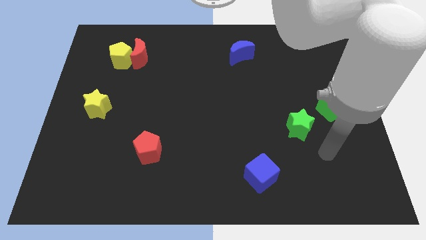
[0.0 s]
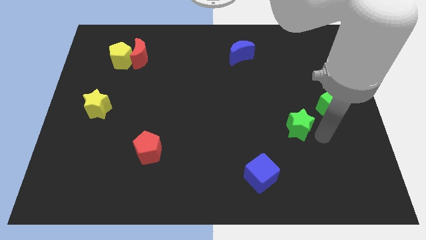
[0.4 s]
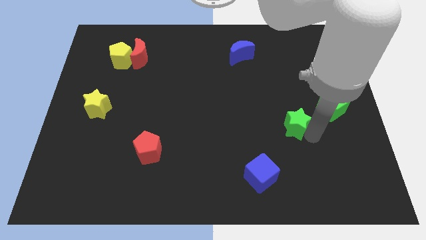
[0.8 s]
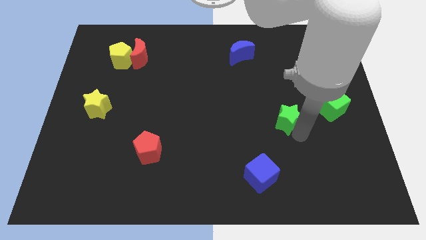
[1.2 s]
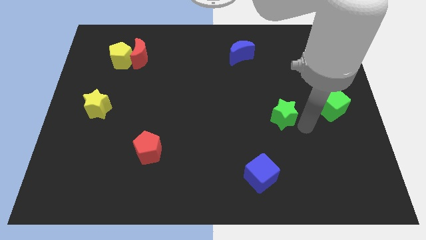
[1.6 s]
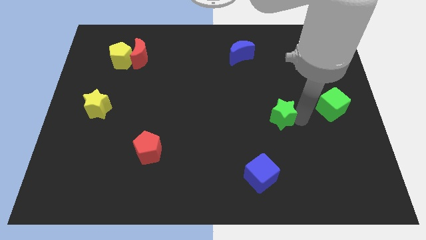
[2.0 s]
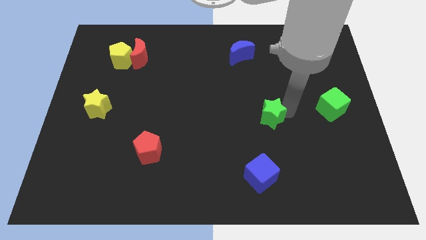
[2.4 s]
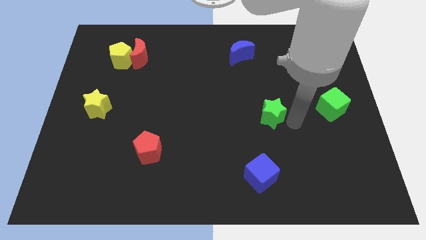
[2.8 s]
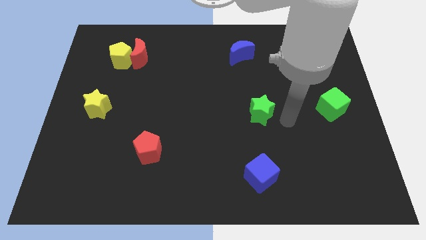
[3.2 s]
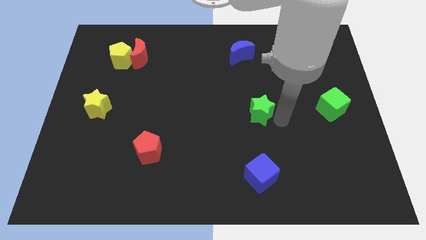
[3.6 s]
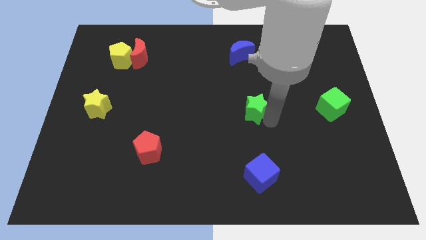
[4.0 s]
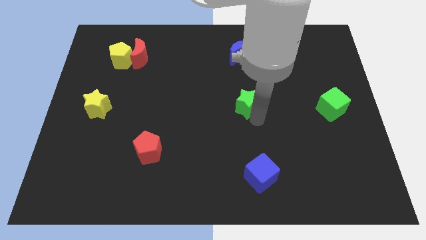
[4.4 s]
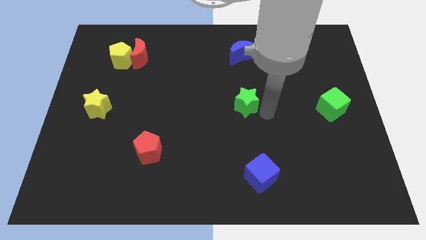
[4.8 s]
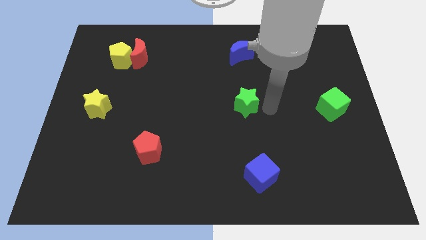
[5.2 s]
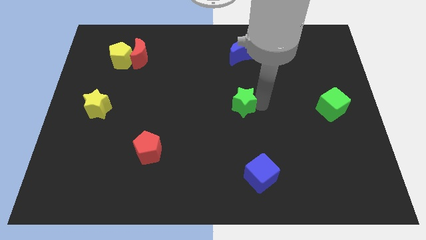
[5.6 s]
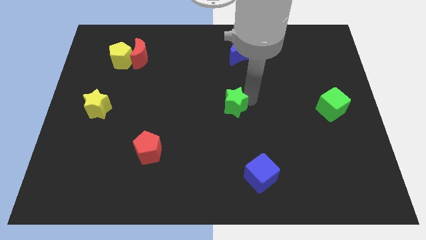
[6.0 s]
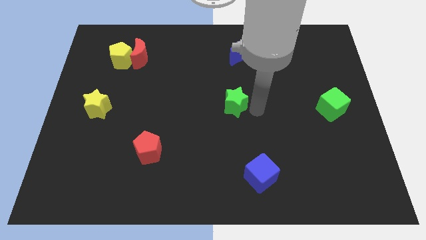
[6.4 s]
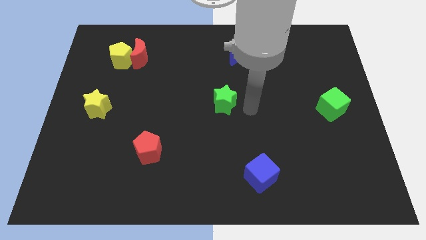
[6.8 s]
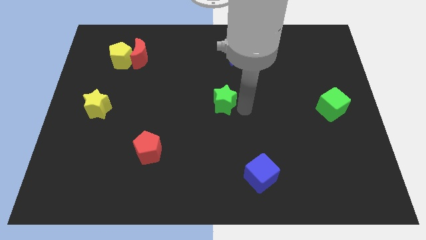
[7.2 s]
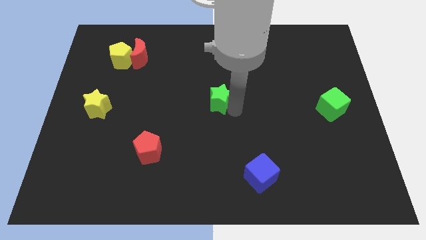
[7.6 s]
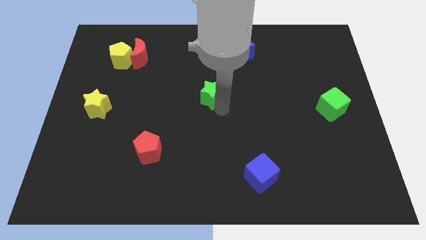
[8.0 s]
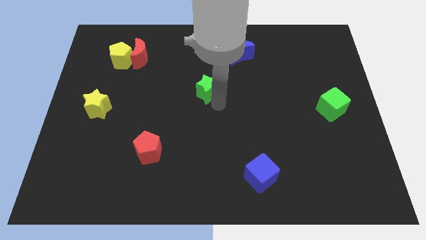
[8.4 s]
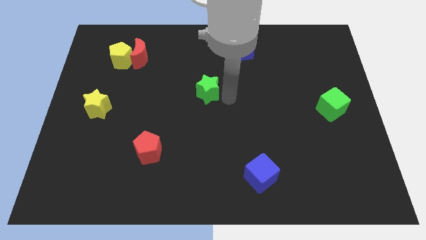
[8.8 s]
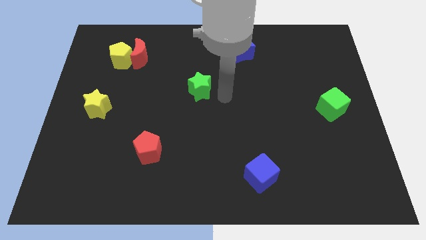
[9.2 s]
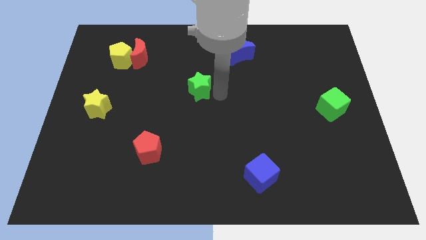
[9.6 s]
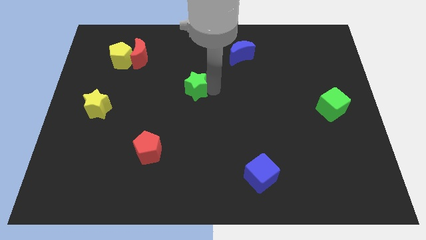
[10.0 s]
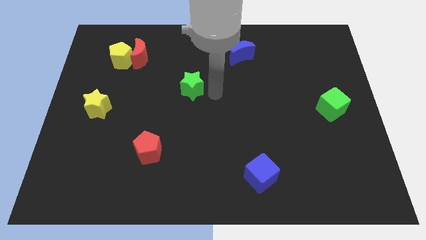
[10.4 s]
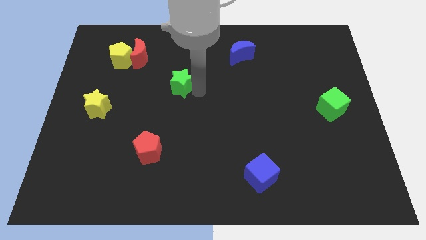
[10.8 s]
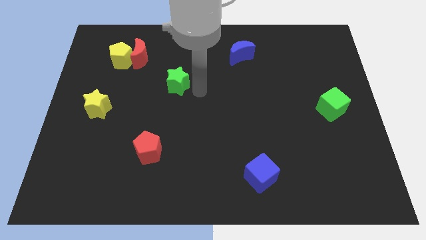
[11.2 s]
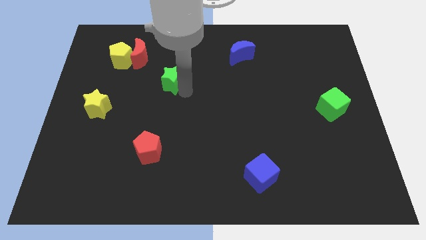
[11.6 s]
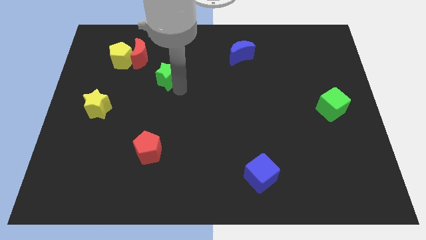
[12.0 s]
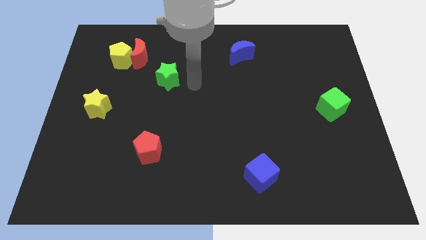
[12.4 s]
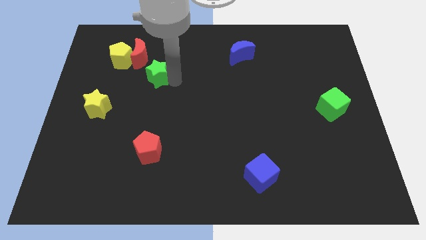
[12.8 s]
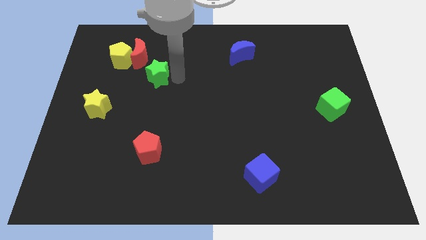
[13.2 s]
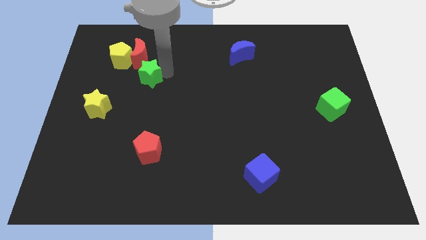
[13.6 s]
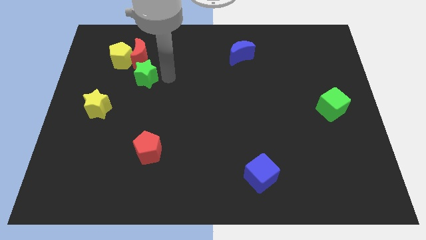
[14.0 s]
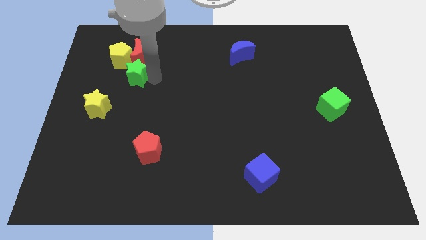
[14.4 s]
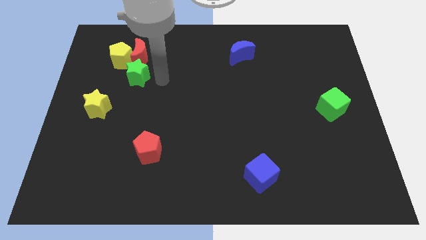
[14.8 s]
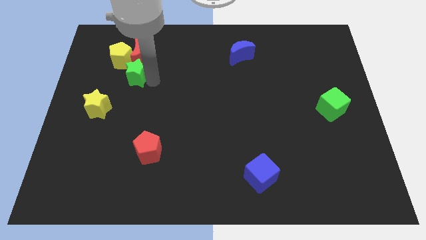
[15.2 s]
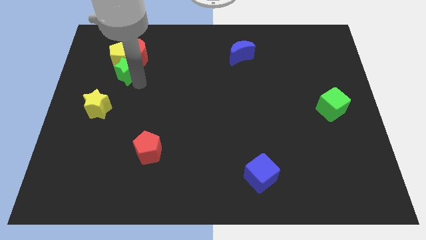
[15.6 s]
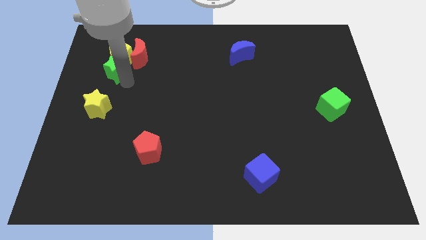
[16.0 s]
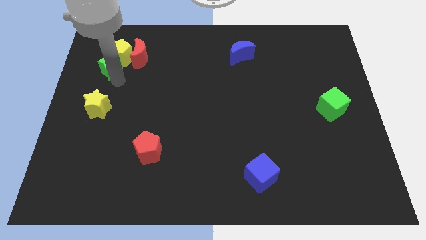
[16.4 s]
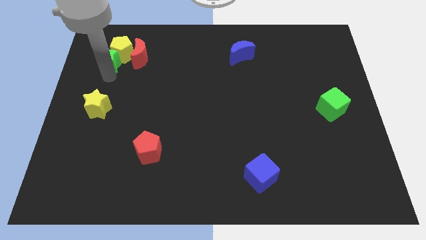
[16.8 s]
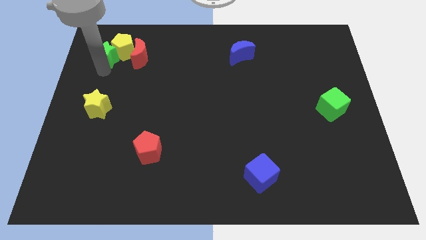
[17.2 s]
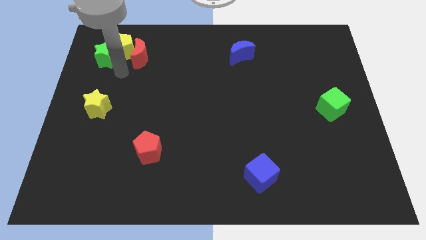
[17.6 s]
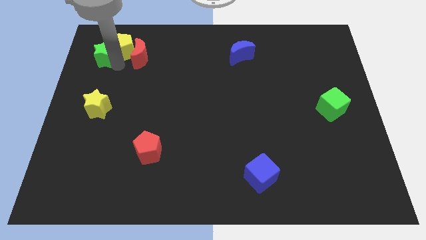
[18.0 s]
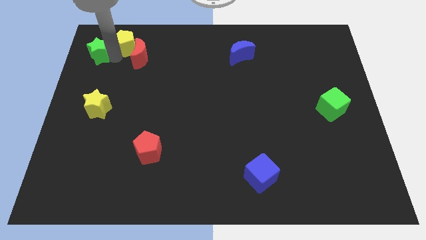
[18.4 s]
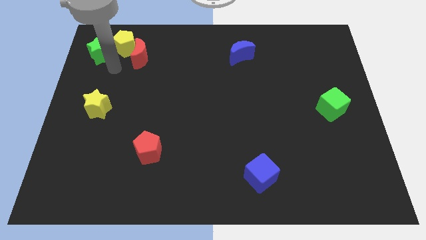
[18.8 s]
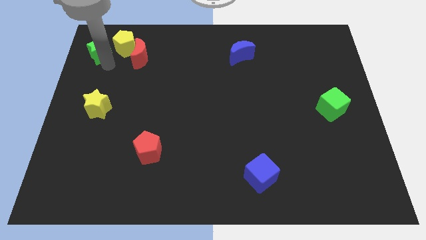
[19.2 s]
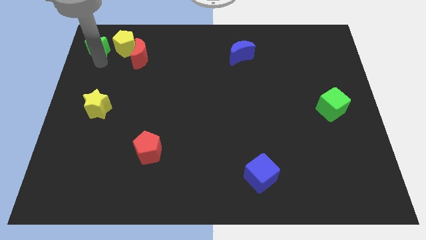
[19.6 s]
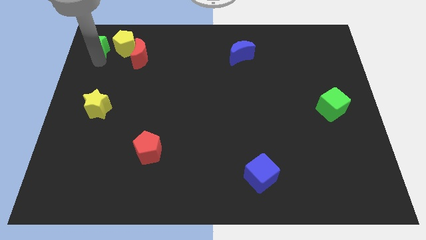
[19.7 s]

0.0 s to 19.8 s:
move the green star to the top left of the board

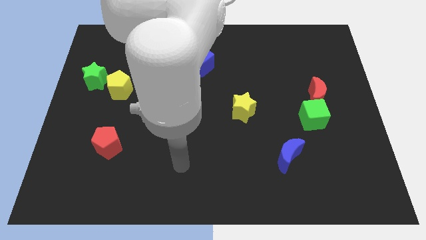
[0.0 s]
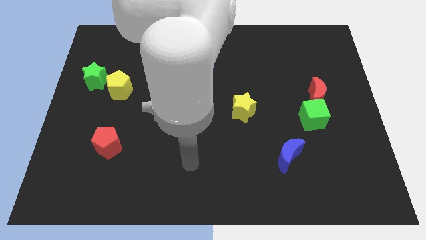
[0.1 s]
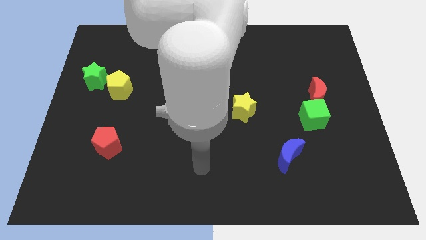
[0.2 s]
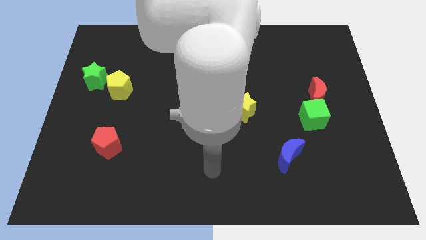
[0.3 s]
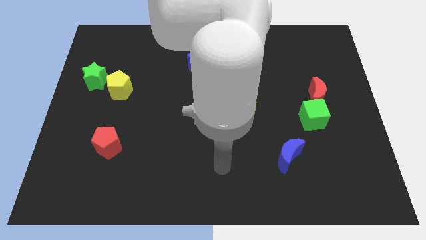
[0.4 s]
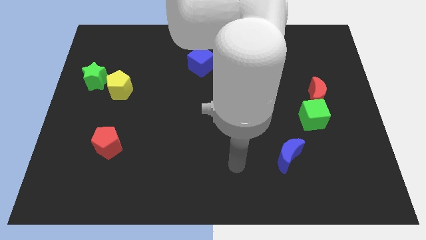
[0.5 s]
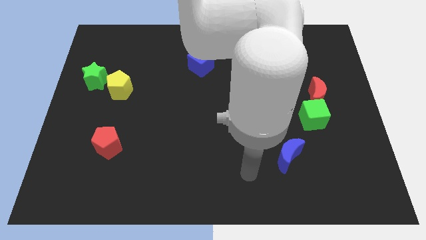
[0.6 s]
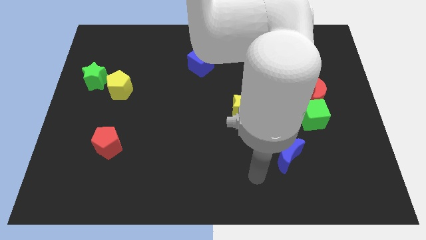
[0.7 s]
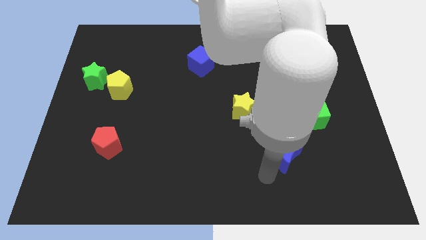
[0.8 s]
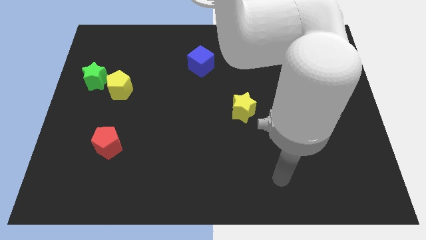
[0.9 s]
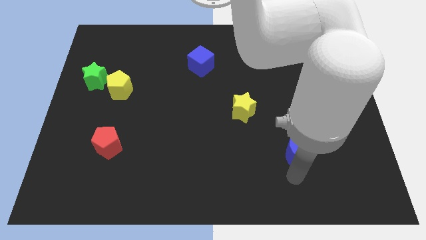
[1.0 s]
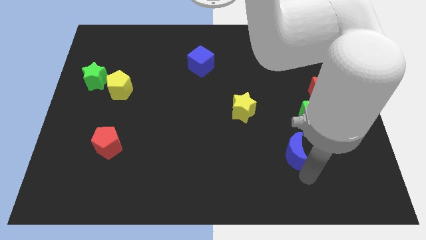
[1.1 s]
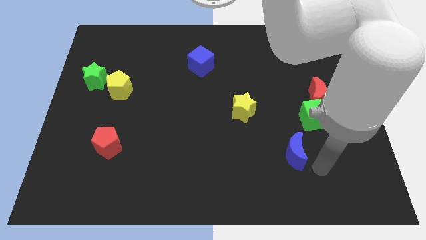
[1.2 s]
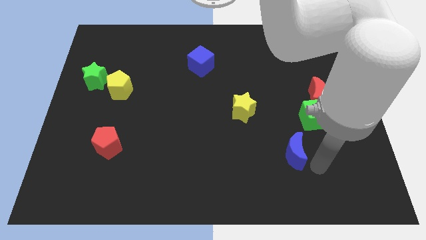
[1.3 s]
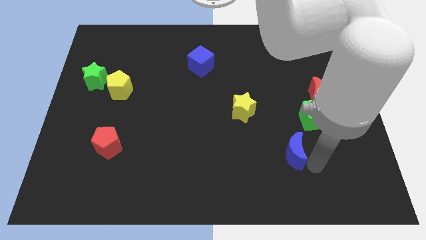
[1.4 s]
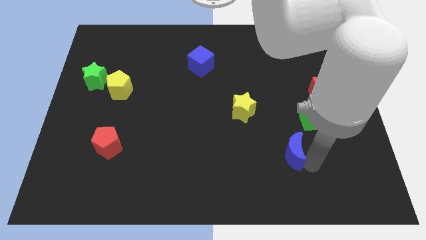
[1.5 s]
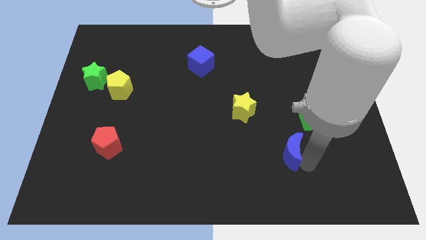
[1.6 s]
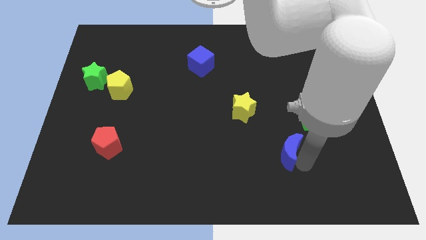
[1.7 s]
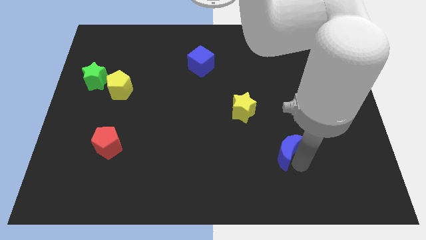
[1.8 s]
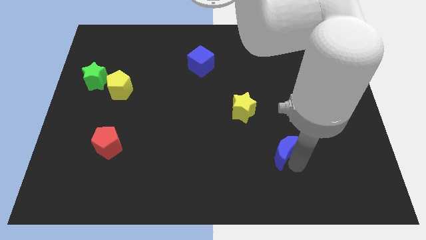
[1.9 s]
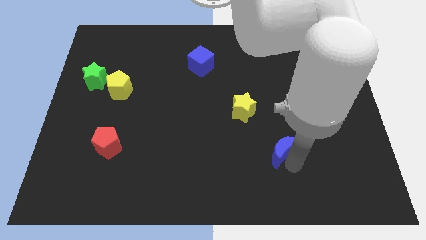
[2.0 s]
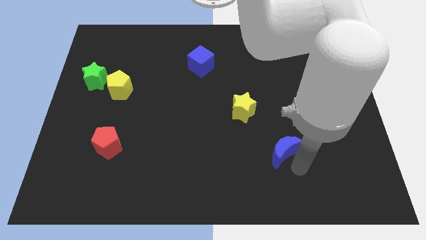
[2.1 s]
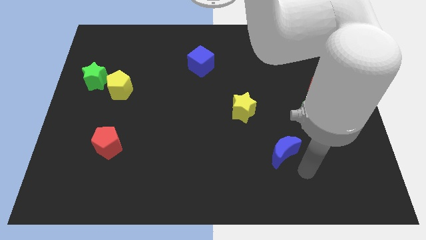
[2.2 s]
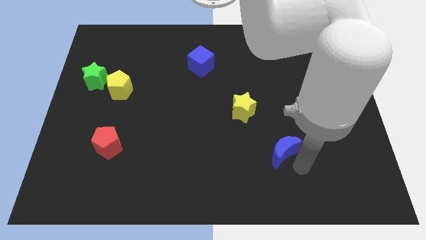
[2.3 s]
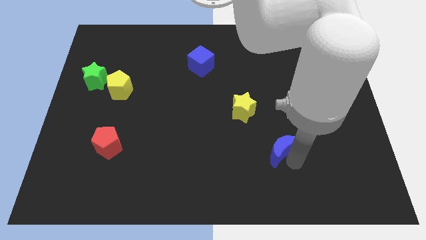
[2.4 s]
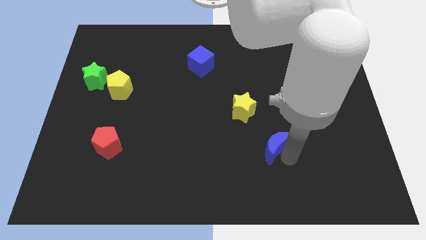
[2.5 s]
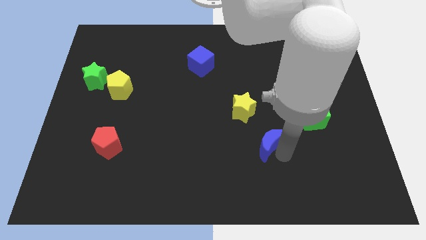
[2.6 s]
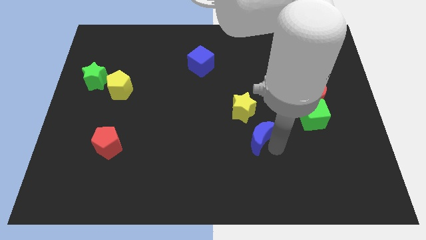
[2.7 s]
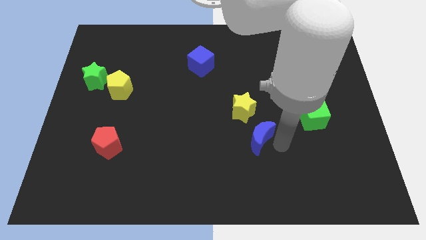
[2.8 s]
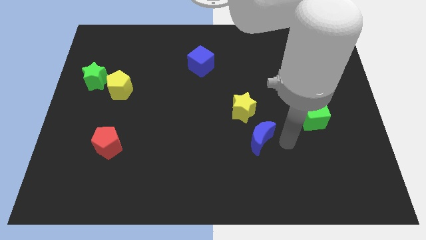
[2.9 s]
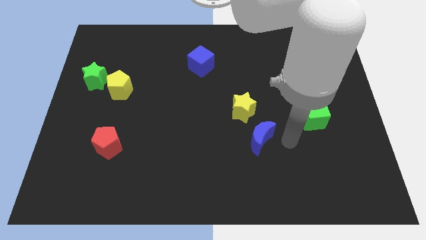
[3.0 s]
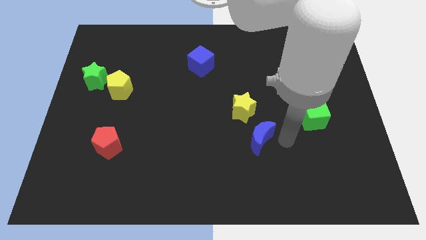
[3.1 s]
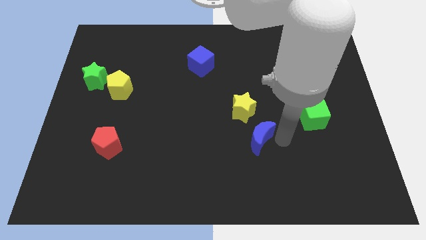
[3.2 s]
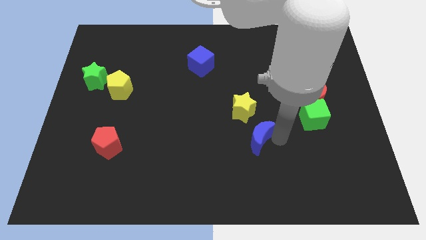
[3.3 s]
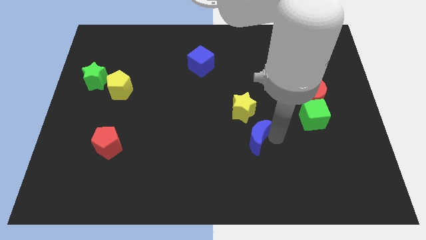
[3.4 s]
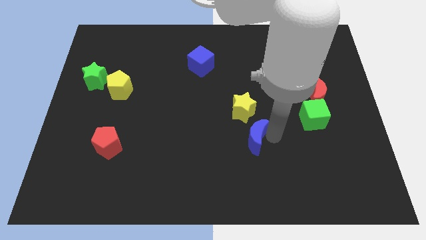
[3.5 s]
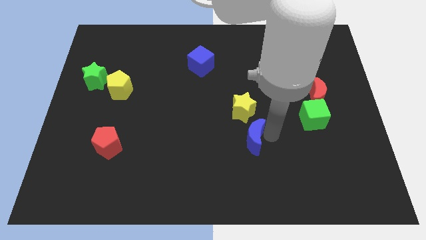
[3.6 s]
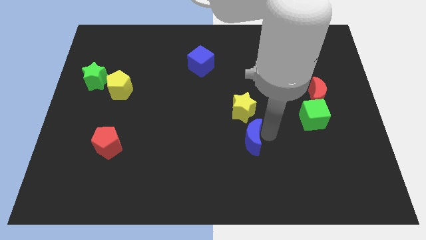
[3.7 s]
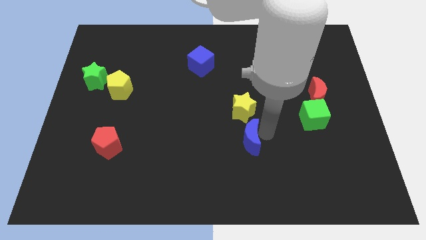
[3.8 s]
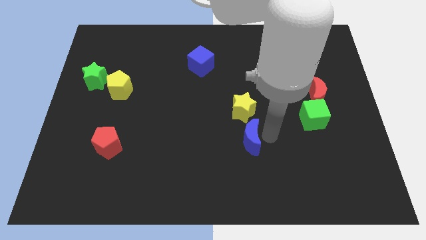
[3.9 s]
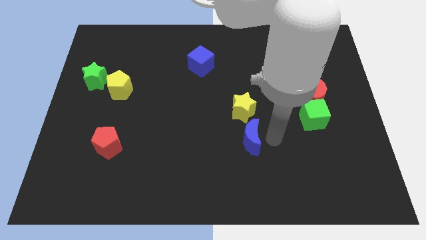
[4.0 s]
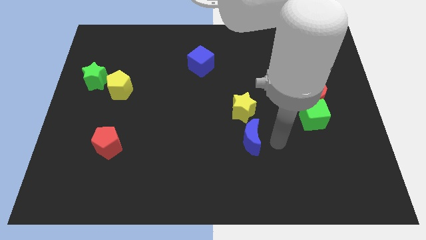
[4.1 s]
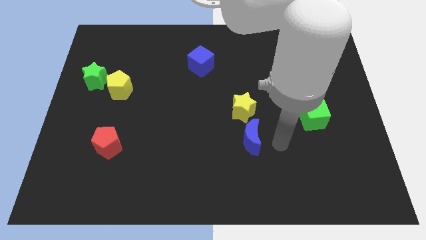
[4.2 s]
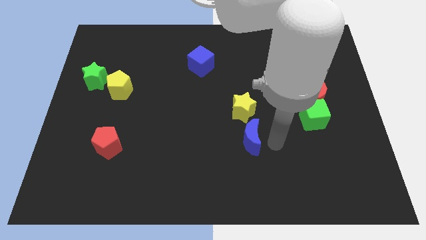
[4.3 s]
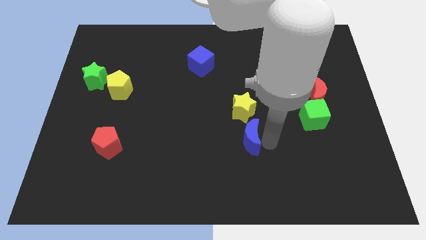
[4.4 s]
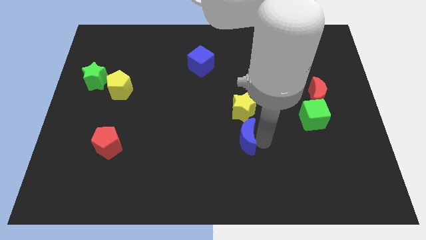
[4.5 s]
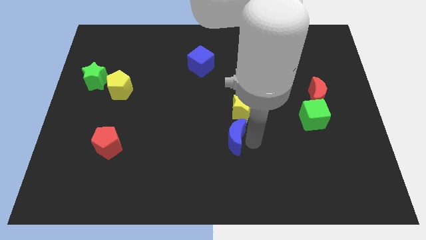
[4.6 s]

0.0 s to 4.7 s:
slide the blue moon to the center of the board
